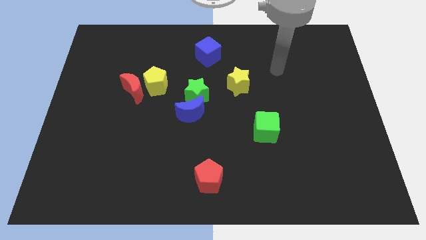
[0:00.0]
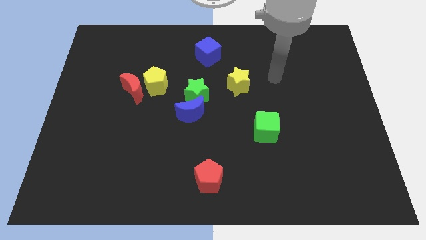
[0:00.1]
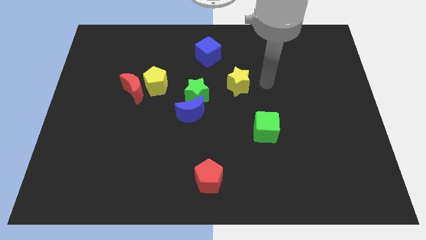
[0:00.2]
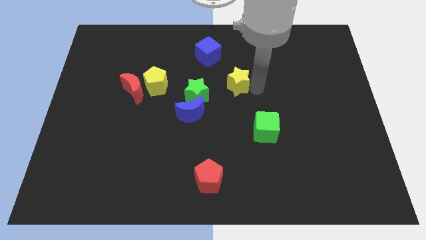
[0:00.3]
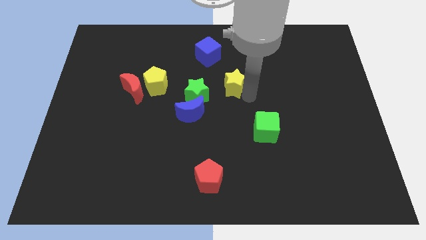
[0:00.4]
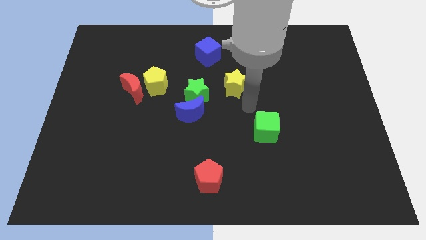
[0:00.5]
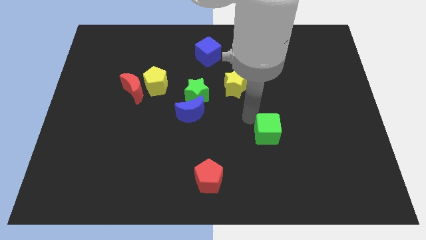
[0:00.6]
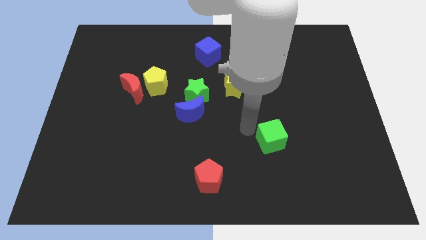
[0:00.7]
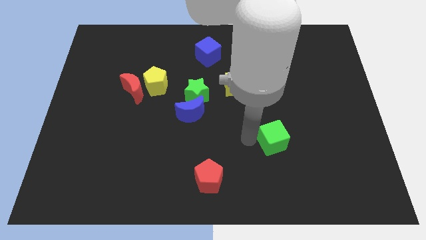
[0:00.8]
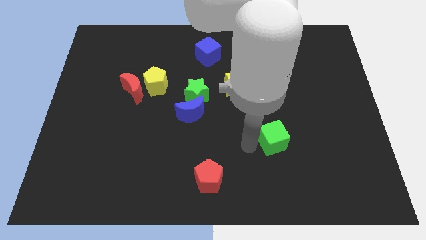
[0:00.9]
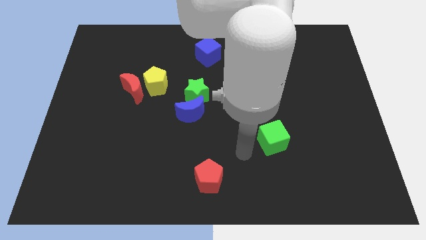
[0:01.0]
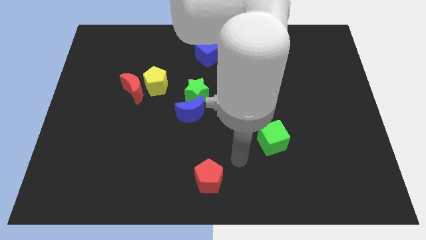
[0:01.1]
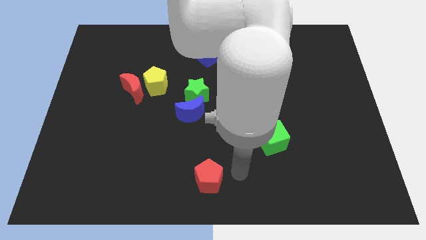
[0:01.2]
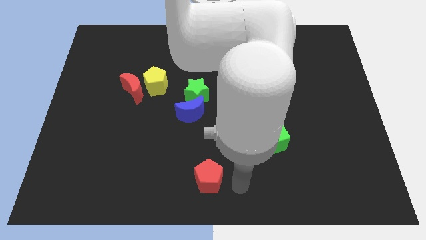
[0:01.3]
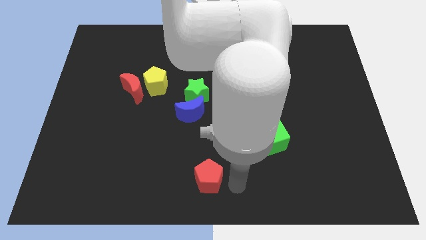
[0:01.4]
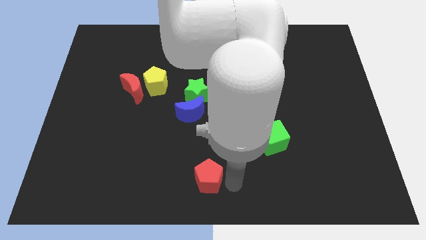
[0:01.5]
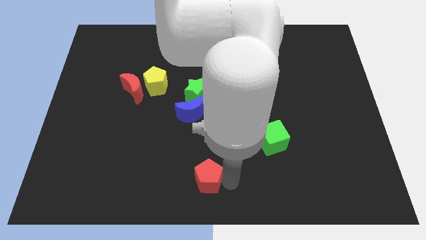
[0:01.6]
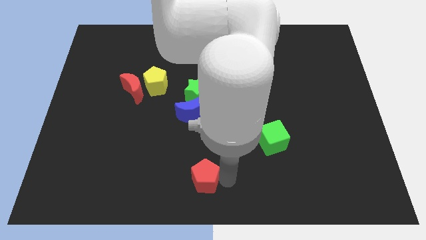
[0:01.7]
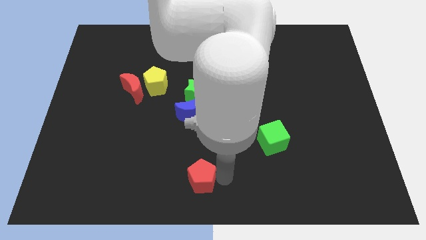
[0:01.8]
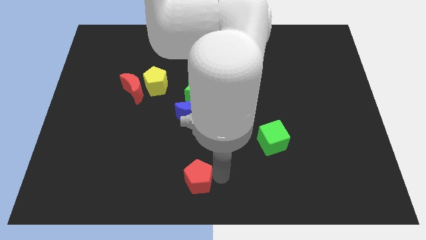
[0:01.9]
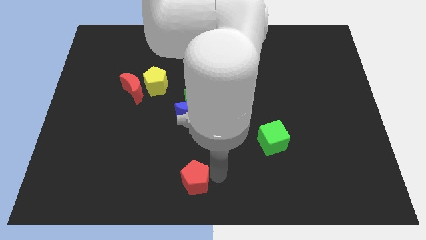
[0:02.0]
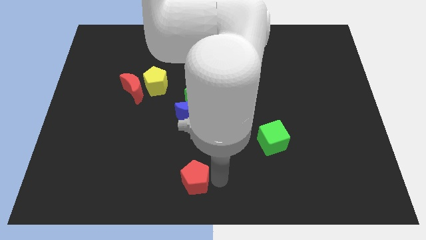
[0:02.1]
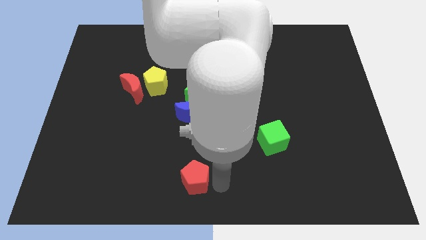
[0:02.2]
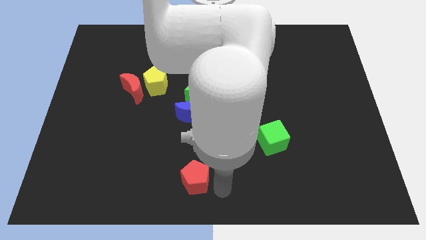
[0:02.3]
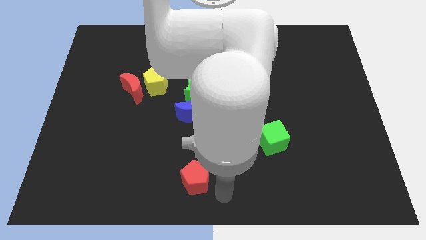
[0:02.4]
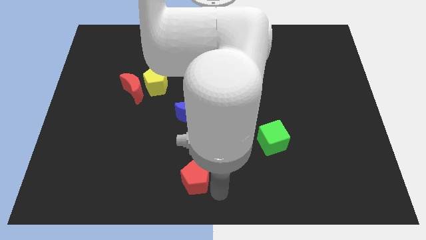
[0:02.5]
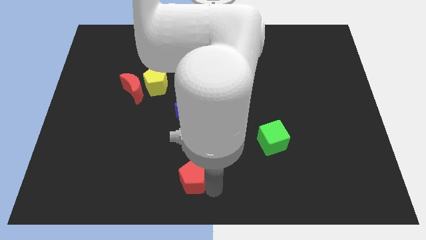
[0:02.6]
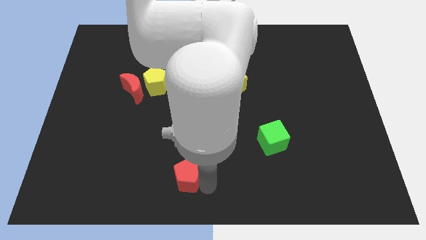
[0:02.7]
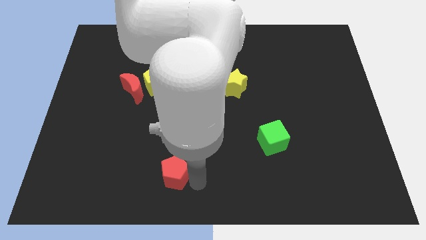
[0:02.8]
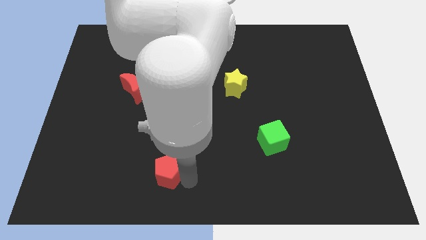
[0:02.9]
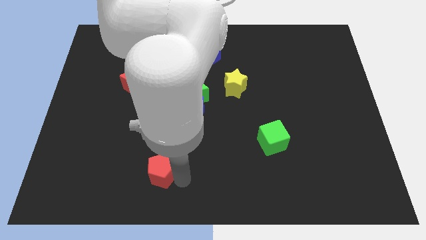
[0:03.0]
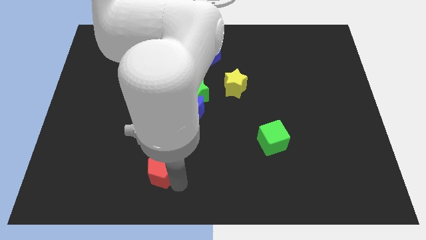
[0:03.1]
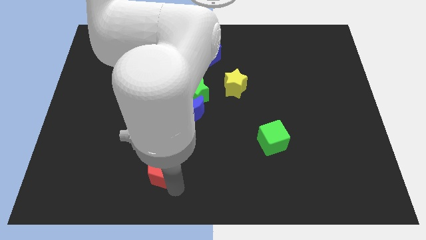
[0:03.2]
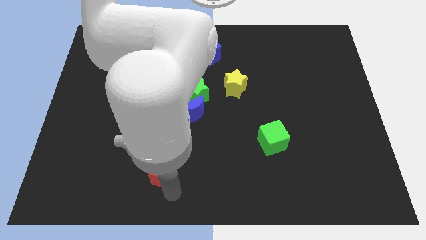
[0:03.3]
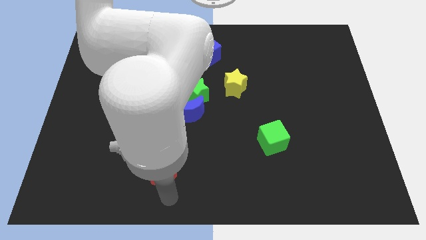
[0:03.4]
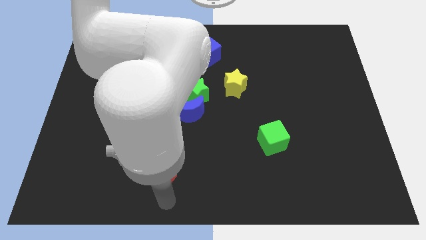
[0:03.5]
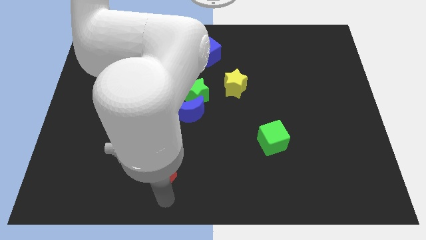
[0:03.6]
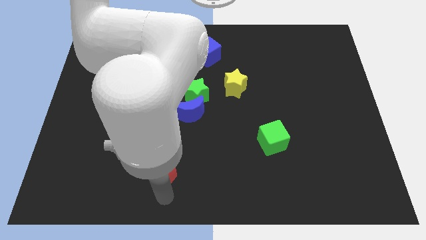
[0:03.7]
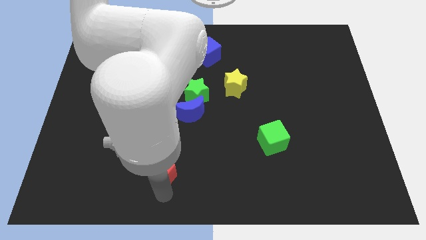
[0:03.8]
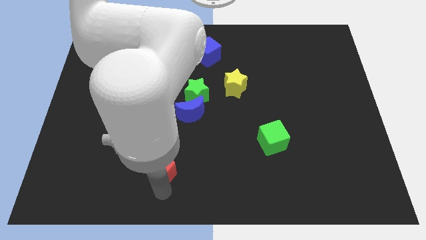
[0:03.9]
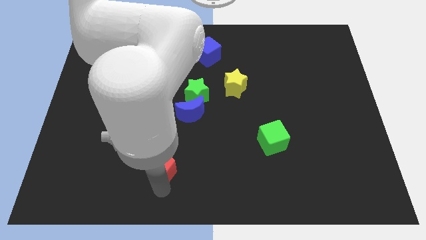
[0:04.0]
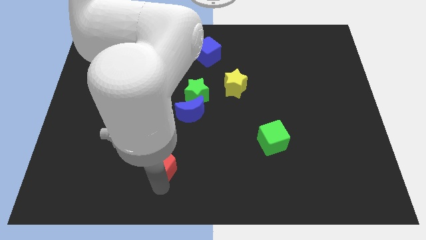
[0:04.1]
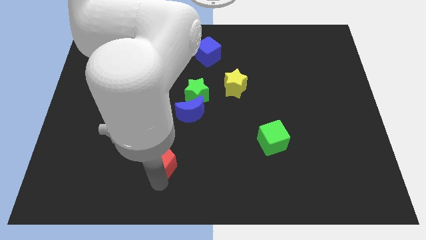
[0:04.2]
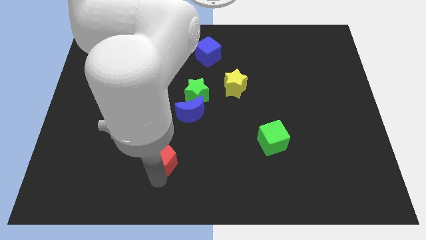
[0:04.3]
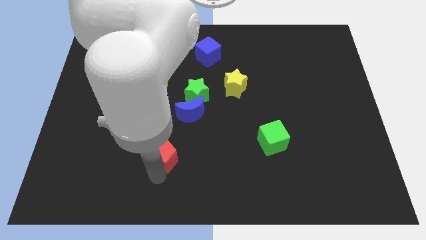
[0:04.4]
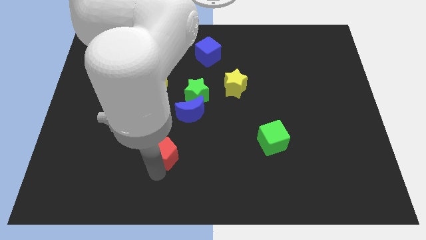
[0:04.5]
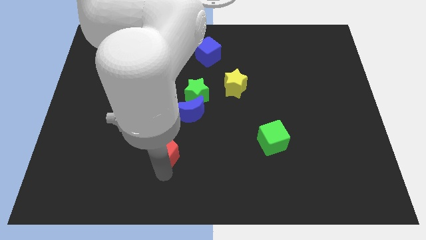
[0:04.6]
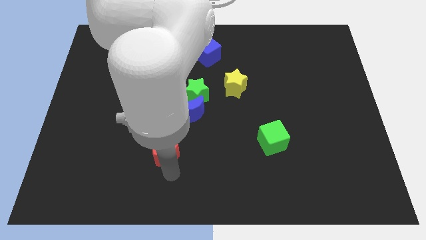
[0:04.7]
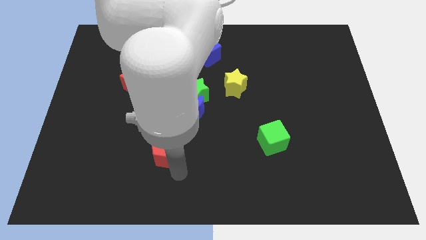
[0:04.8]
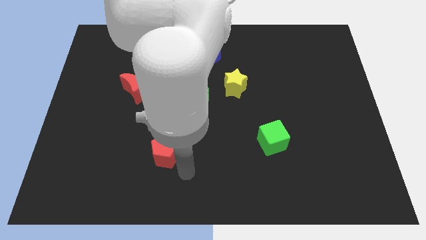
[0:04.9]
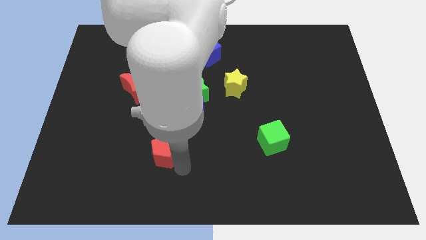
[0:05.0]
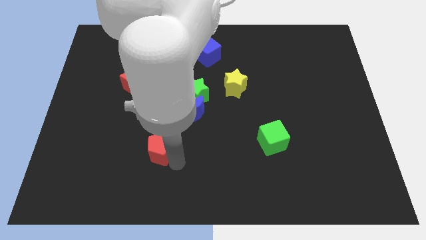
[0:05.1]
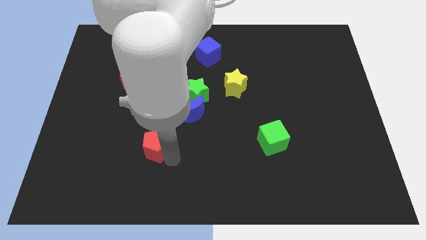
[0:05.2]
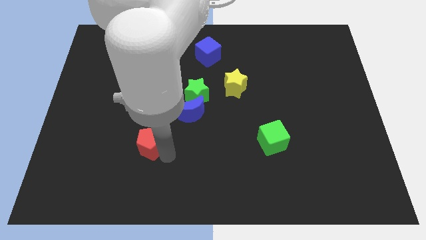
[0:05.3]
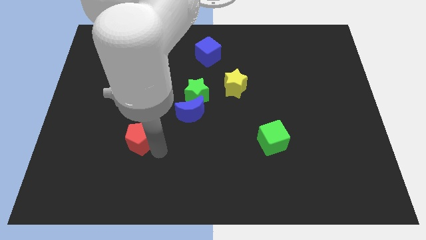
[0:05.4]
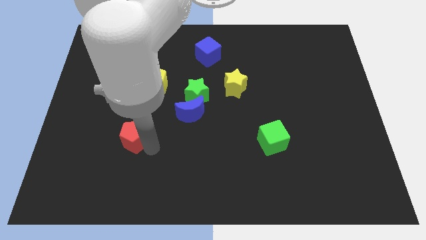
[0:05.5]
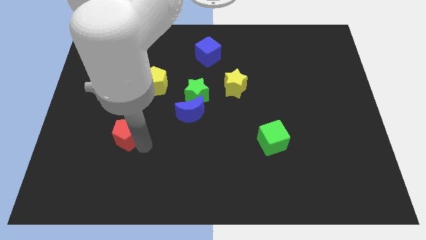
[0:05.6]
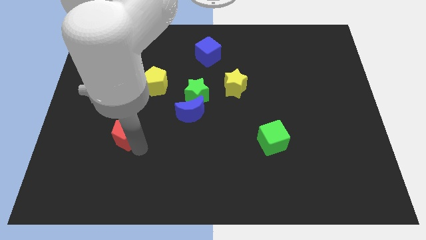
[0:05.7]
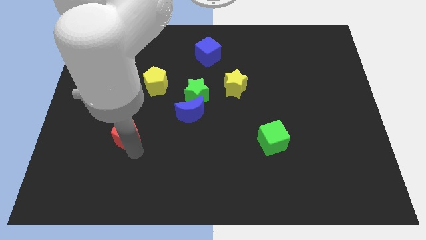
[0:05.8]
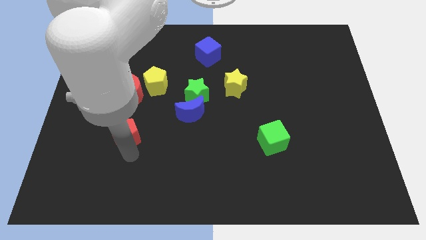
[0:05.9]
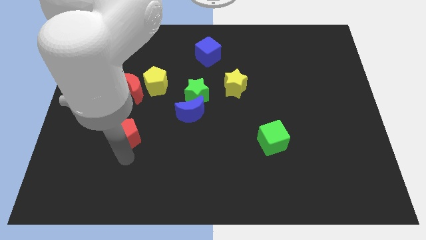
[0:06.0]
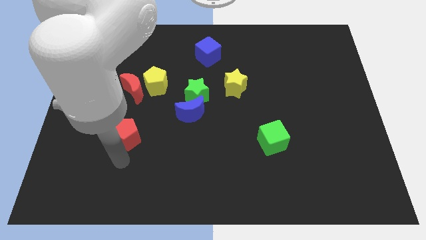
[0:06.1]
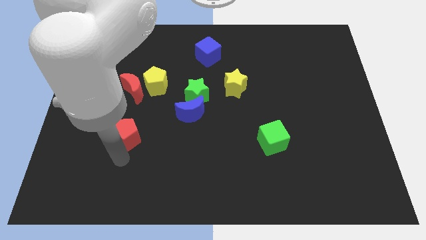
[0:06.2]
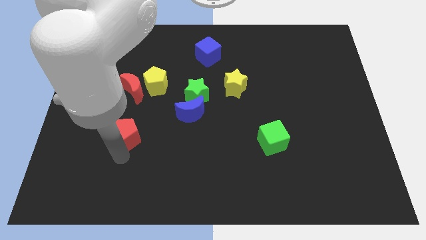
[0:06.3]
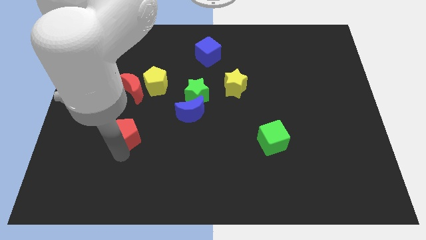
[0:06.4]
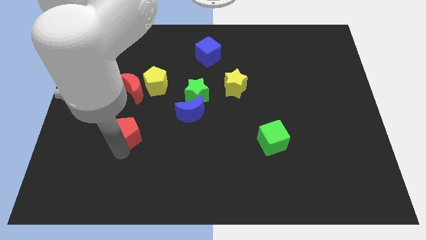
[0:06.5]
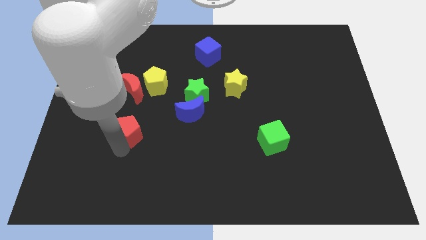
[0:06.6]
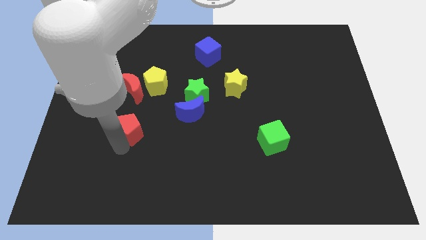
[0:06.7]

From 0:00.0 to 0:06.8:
push the red pentagon diagonally up and left

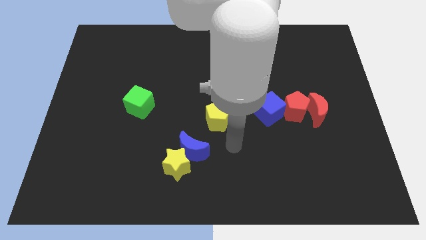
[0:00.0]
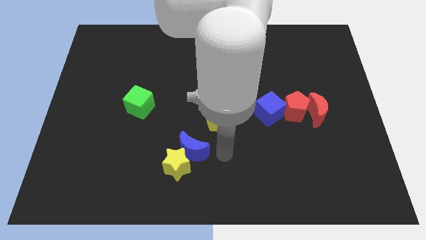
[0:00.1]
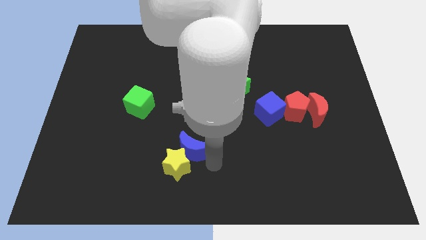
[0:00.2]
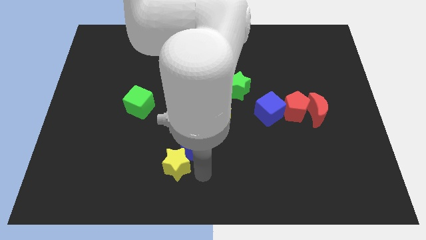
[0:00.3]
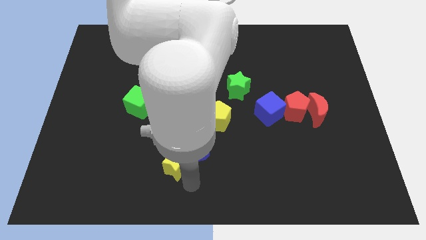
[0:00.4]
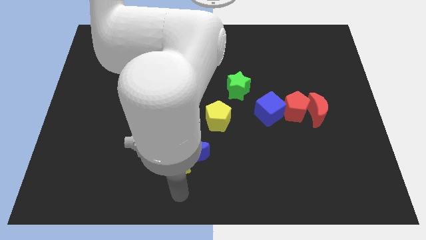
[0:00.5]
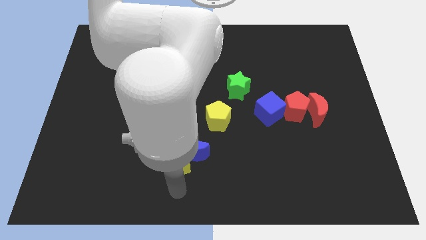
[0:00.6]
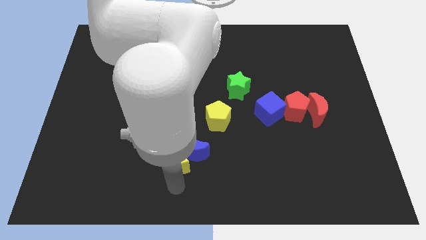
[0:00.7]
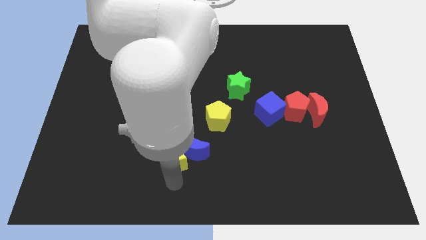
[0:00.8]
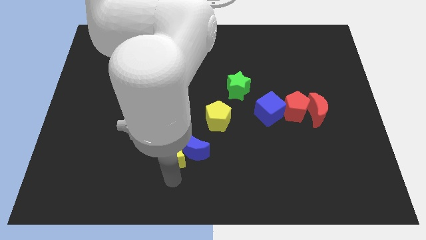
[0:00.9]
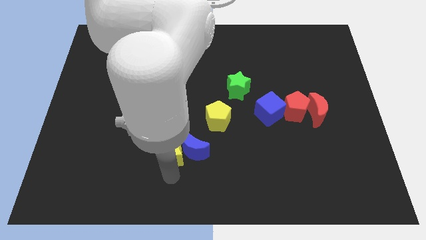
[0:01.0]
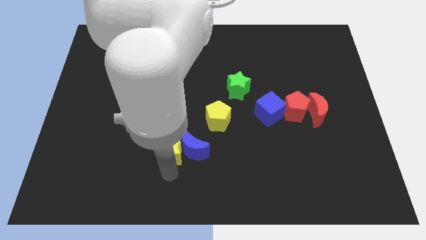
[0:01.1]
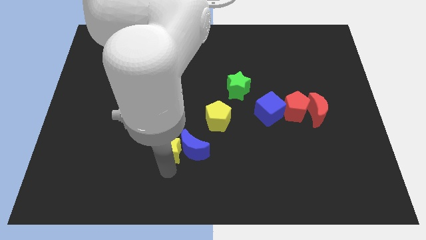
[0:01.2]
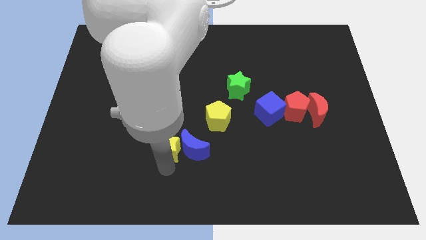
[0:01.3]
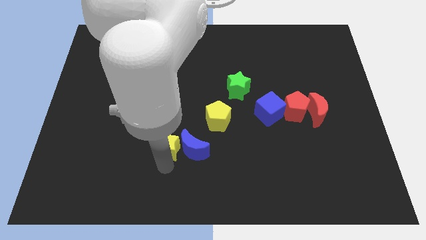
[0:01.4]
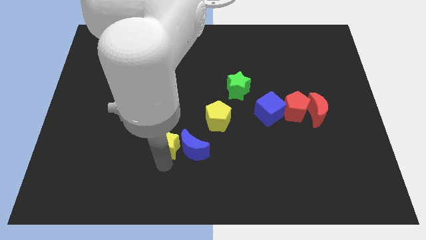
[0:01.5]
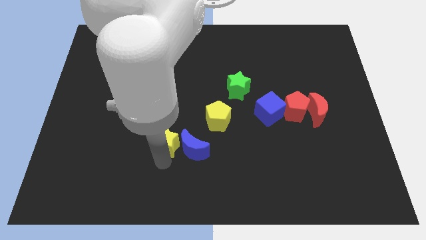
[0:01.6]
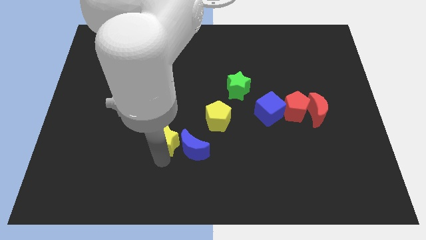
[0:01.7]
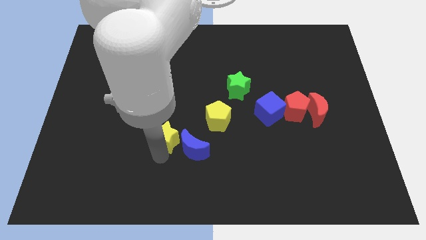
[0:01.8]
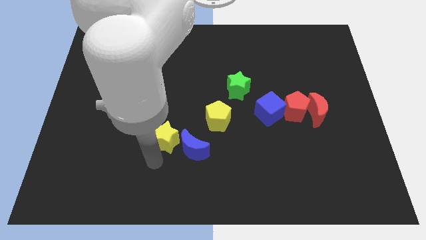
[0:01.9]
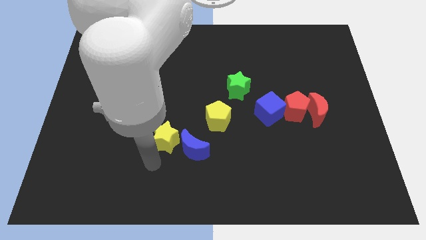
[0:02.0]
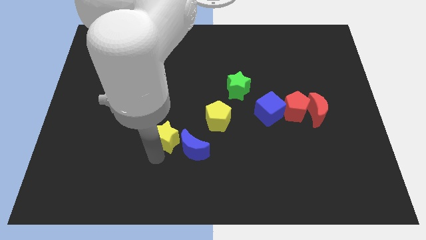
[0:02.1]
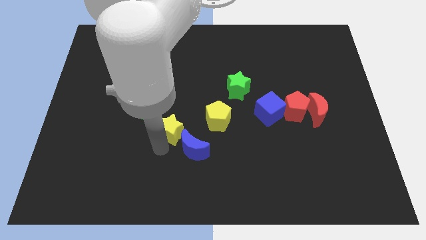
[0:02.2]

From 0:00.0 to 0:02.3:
push the yellow star a little bit up
